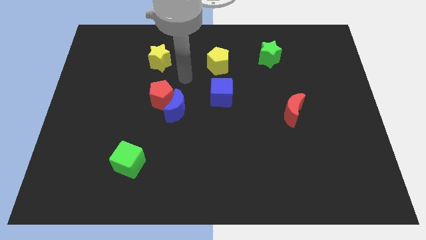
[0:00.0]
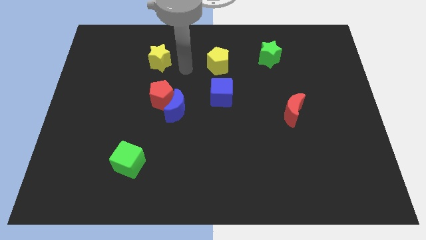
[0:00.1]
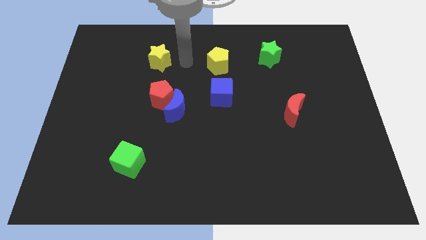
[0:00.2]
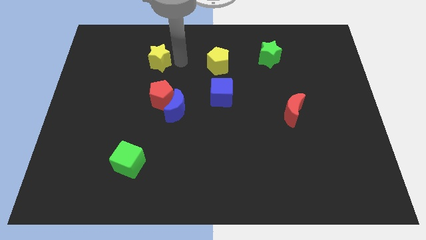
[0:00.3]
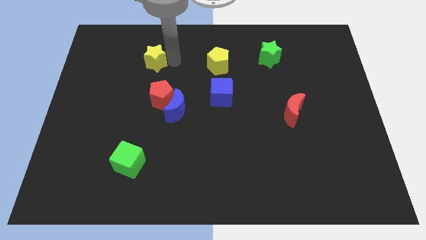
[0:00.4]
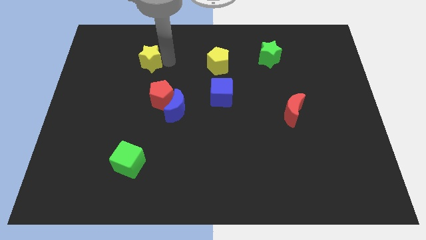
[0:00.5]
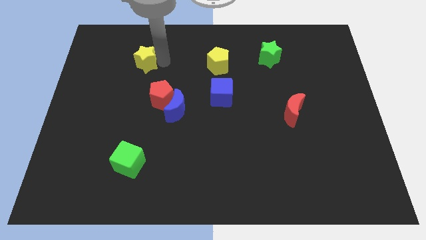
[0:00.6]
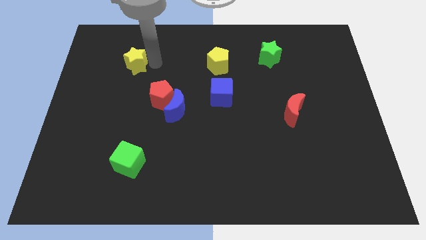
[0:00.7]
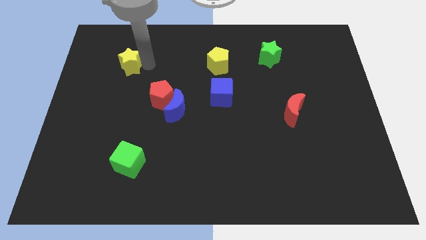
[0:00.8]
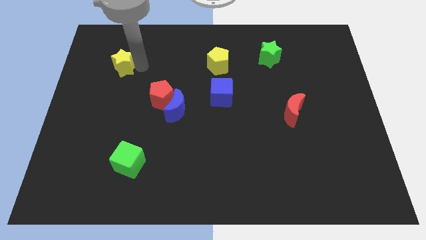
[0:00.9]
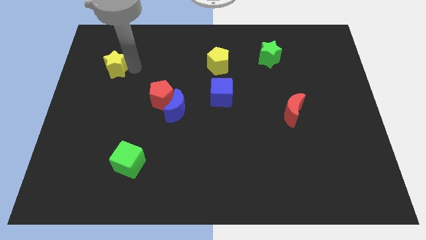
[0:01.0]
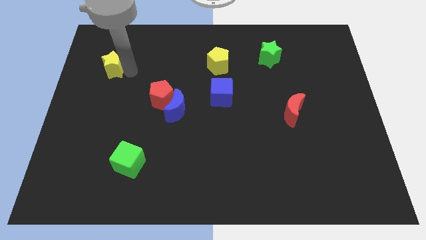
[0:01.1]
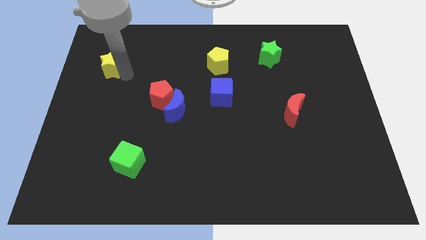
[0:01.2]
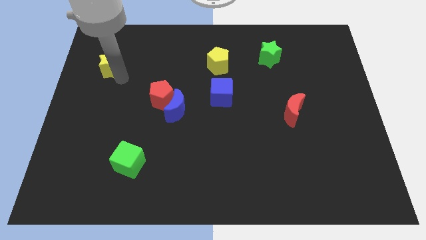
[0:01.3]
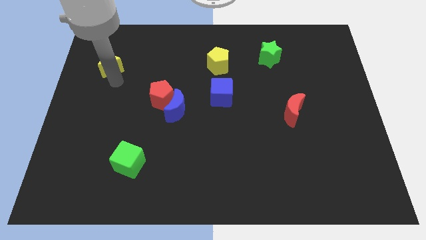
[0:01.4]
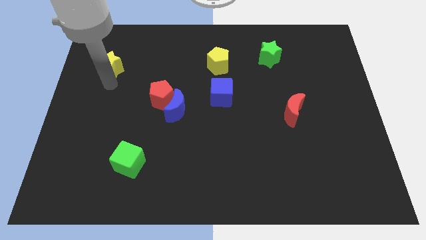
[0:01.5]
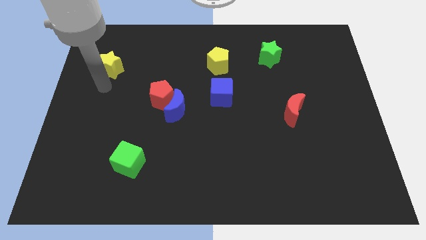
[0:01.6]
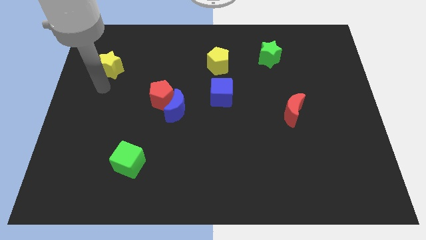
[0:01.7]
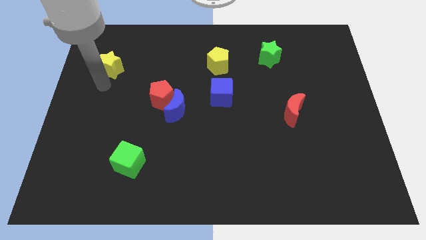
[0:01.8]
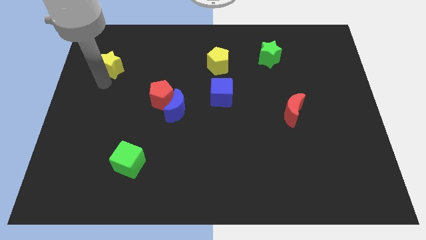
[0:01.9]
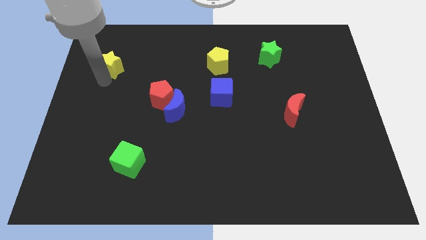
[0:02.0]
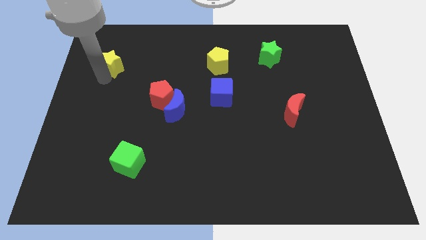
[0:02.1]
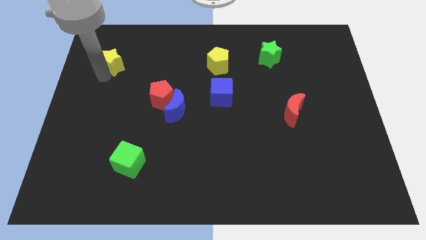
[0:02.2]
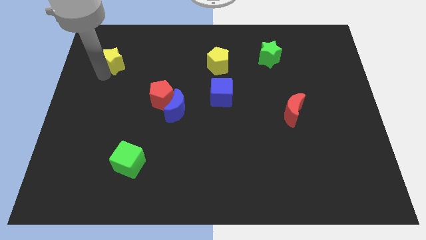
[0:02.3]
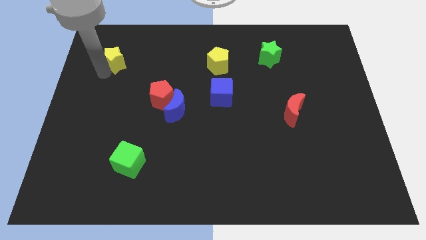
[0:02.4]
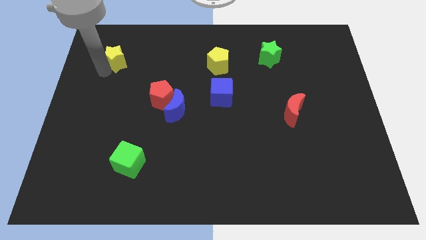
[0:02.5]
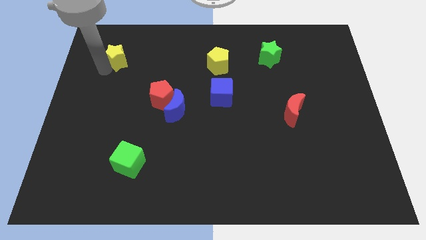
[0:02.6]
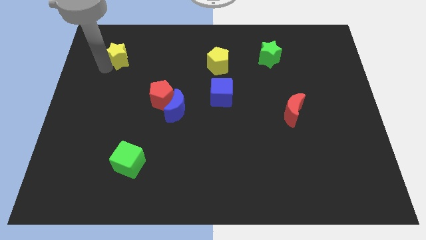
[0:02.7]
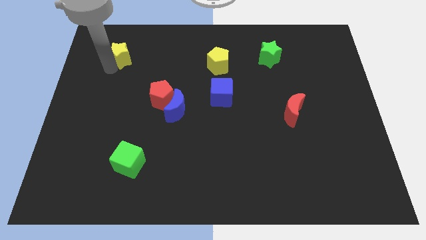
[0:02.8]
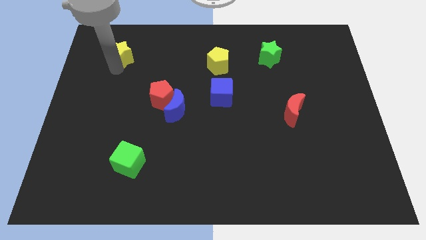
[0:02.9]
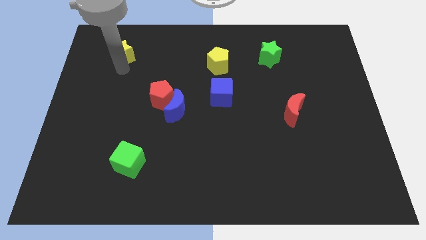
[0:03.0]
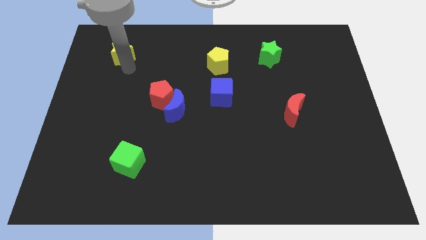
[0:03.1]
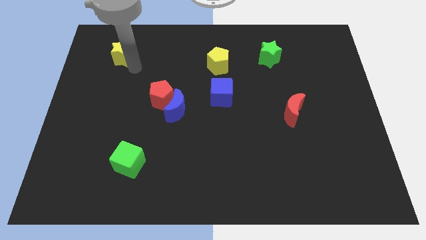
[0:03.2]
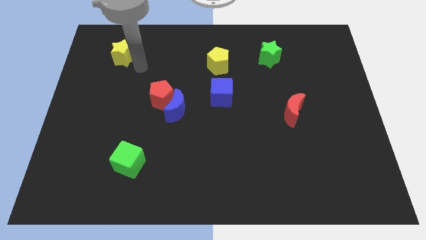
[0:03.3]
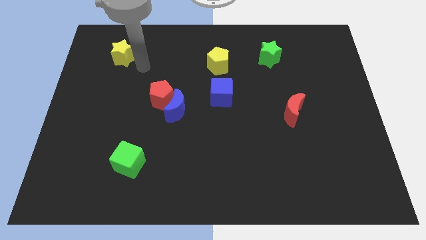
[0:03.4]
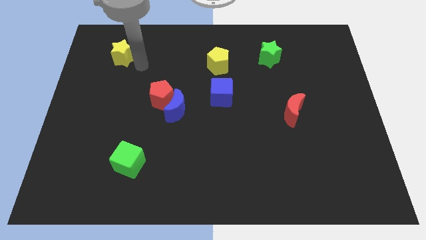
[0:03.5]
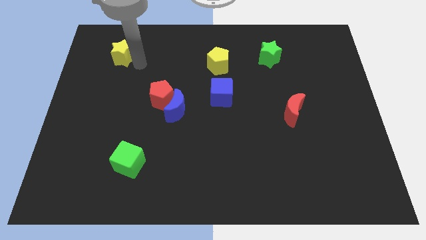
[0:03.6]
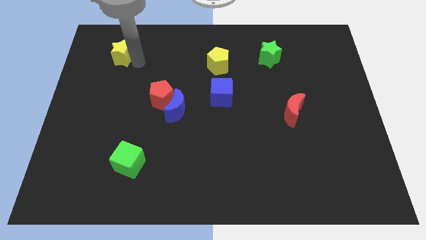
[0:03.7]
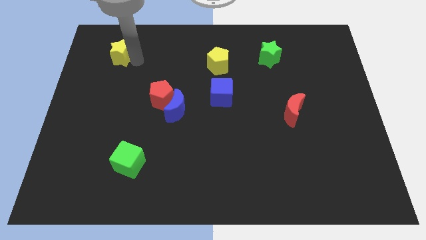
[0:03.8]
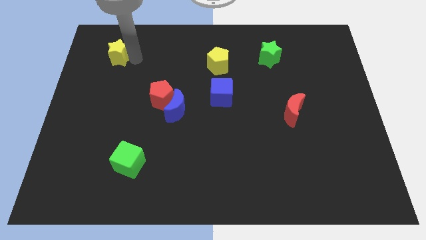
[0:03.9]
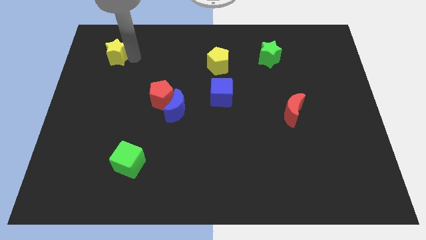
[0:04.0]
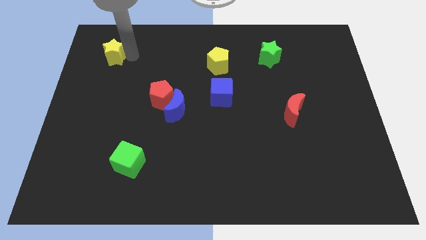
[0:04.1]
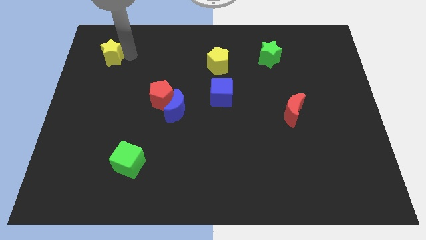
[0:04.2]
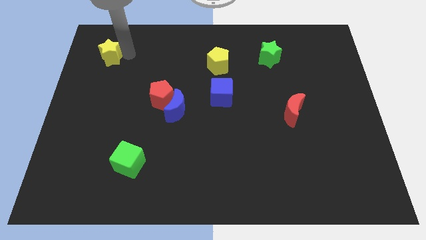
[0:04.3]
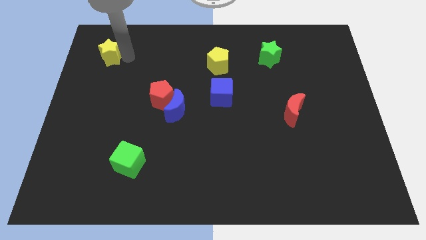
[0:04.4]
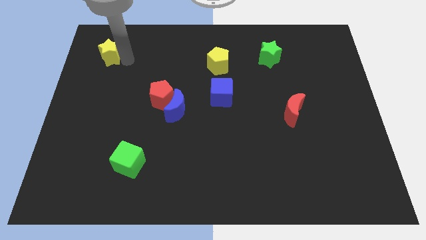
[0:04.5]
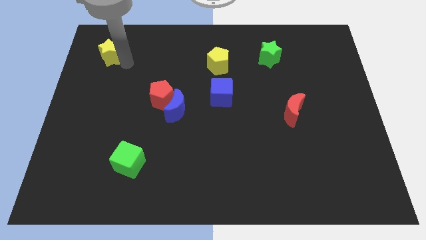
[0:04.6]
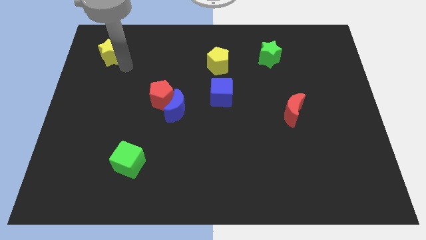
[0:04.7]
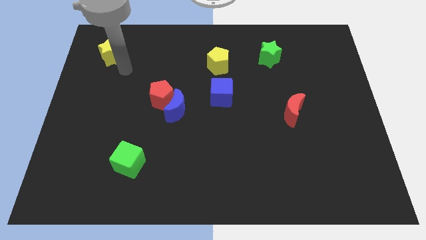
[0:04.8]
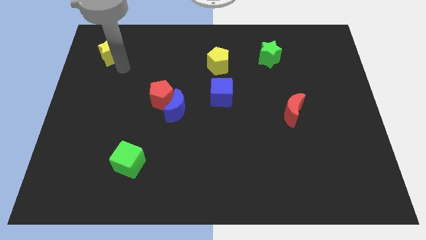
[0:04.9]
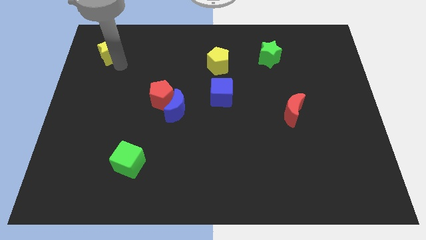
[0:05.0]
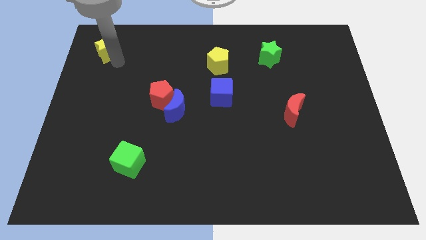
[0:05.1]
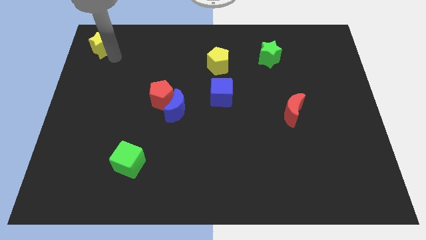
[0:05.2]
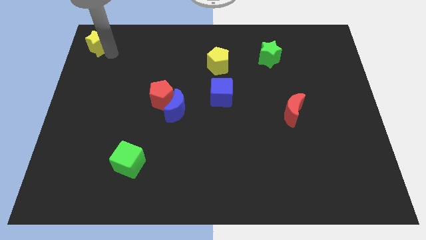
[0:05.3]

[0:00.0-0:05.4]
move the yellow star to the top left of the board

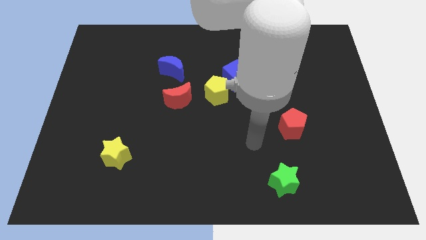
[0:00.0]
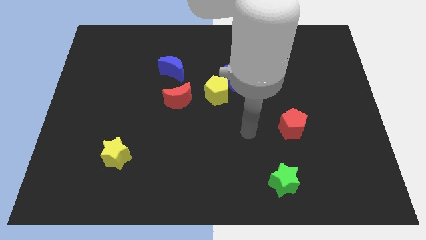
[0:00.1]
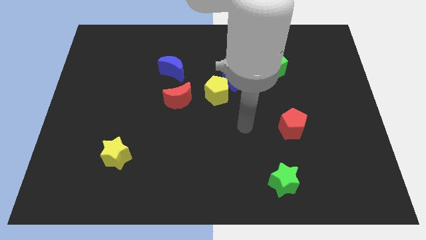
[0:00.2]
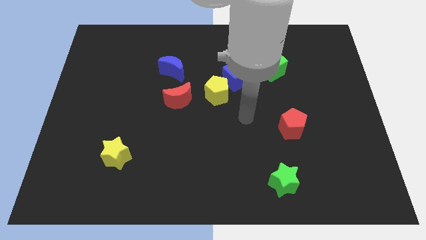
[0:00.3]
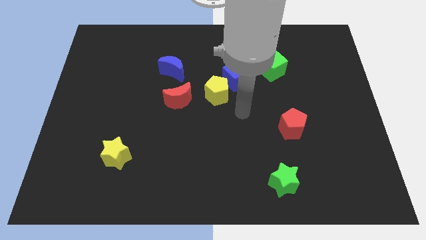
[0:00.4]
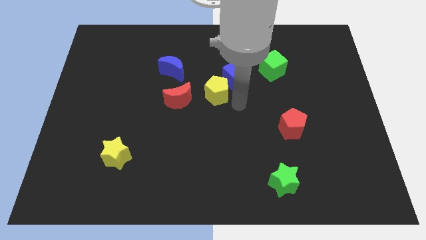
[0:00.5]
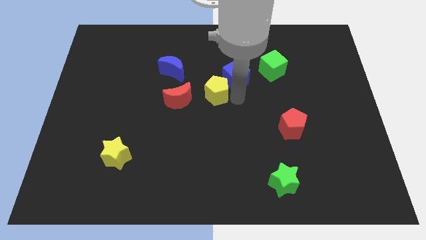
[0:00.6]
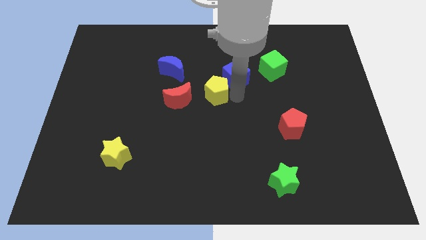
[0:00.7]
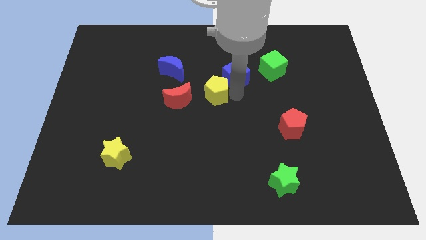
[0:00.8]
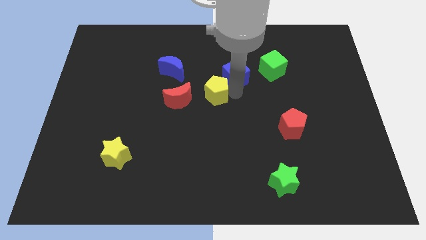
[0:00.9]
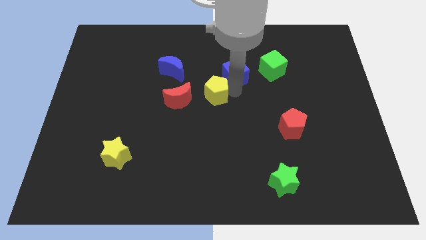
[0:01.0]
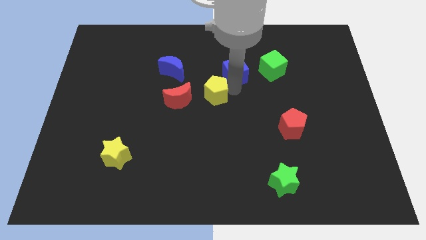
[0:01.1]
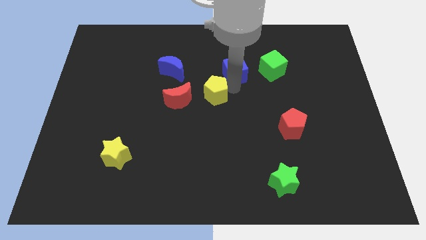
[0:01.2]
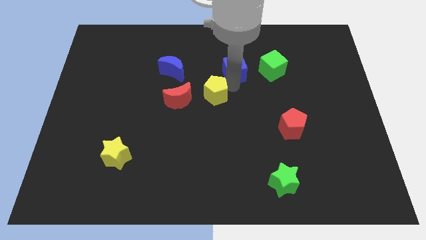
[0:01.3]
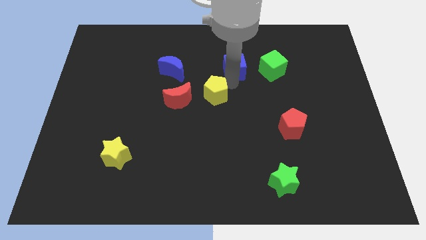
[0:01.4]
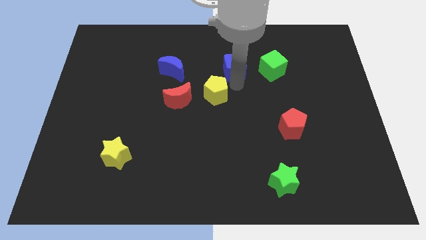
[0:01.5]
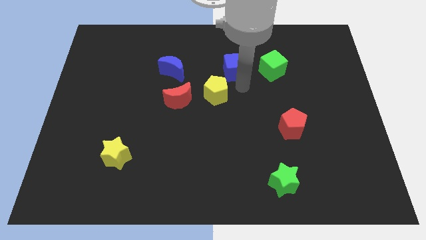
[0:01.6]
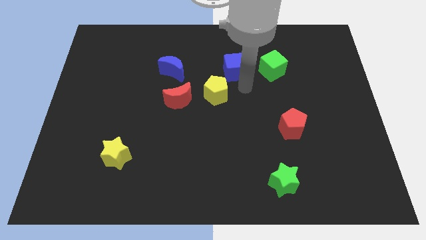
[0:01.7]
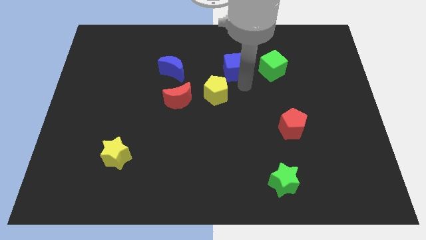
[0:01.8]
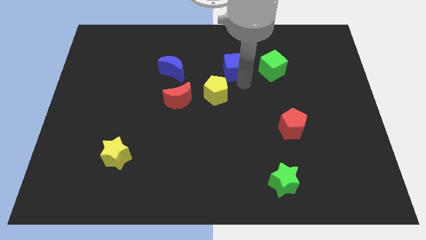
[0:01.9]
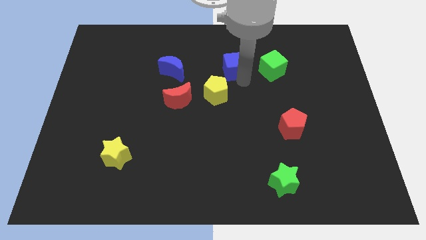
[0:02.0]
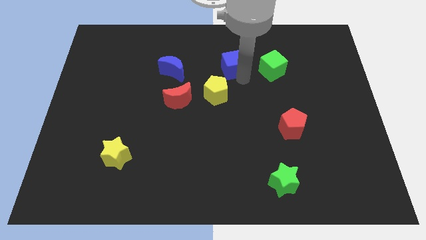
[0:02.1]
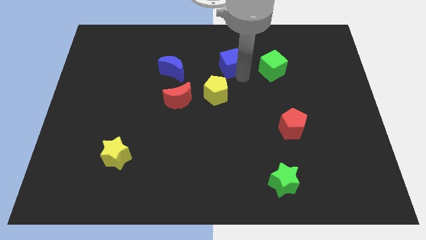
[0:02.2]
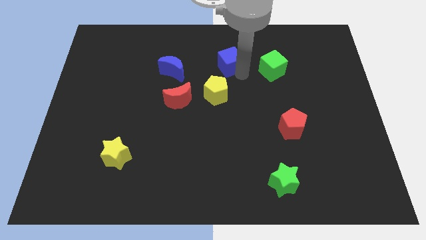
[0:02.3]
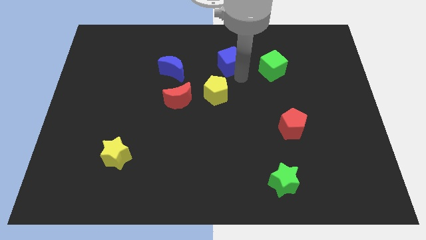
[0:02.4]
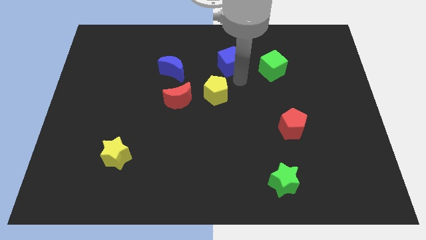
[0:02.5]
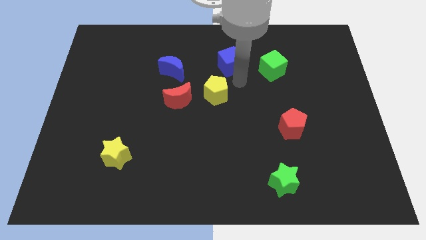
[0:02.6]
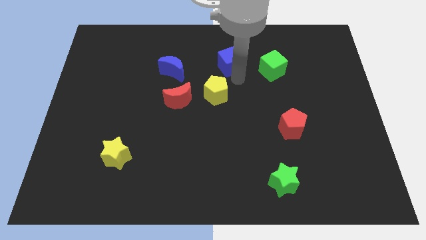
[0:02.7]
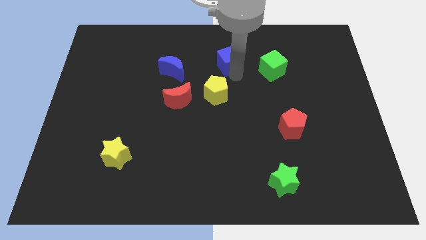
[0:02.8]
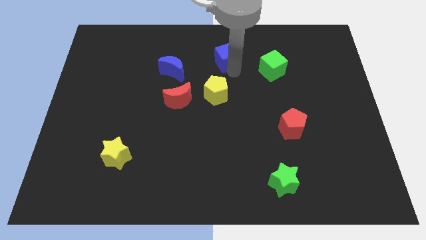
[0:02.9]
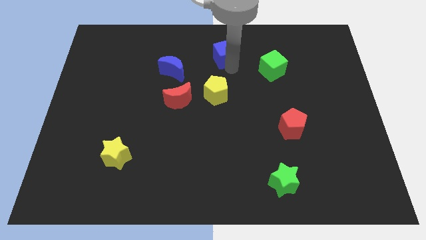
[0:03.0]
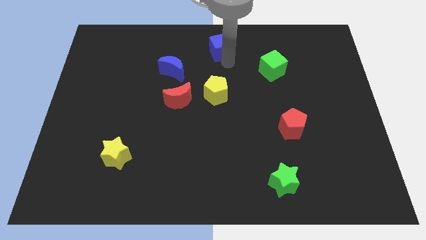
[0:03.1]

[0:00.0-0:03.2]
put the blue cube to the top side
